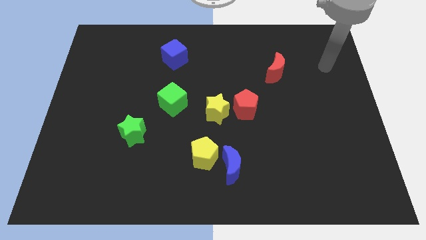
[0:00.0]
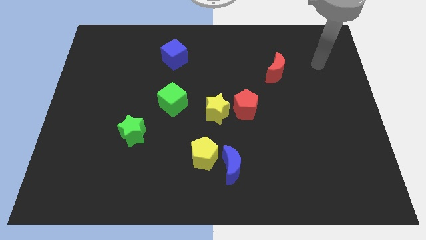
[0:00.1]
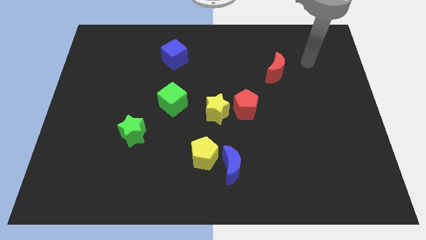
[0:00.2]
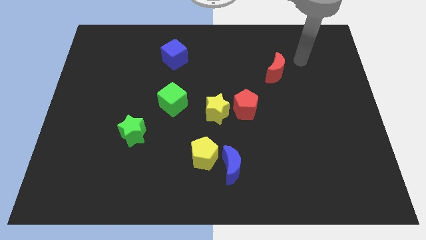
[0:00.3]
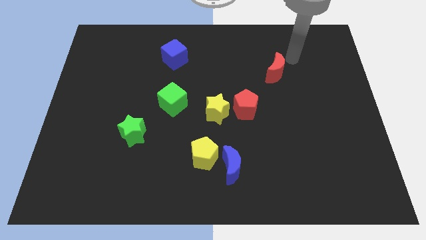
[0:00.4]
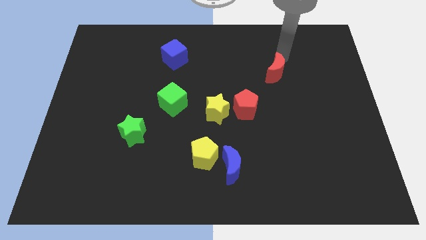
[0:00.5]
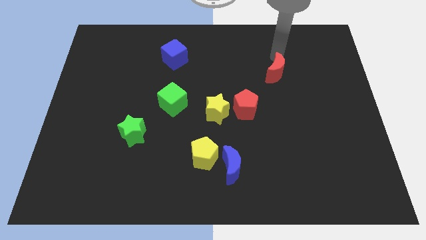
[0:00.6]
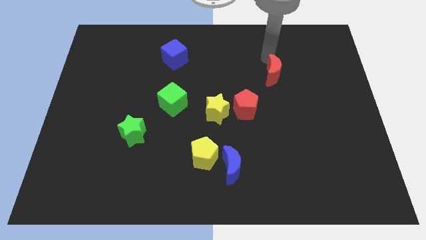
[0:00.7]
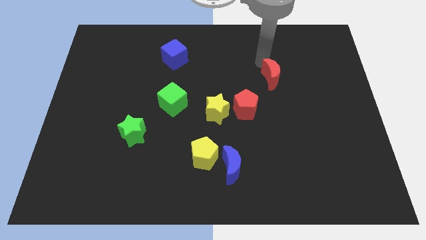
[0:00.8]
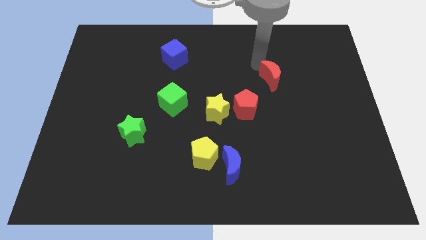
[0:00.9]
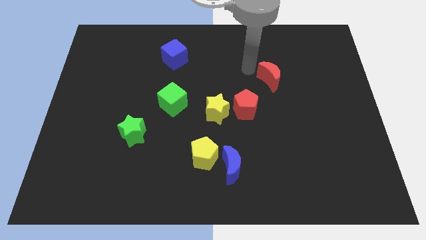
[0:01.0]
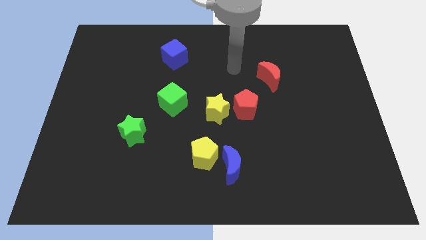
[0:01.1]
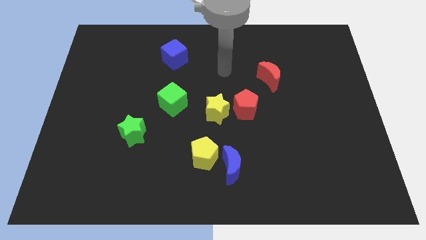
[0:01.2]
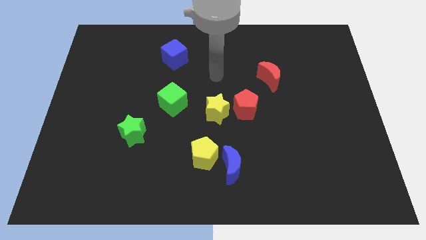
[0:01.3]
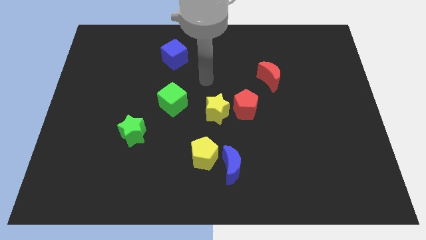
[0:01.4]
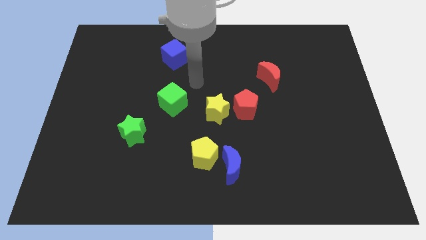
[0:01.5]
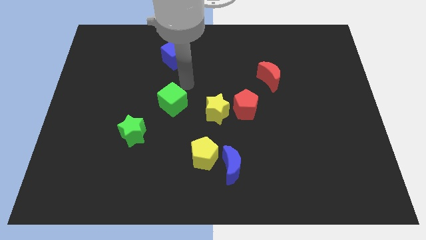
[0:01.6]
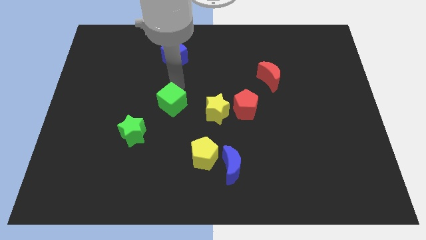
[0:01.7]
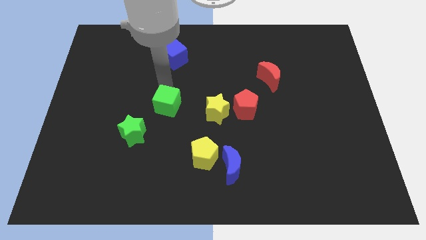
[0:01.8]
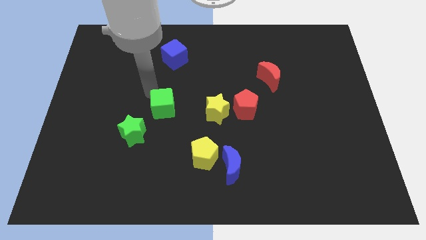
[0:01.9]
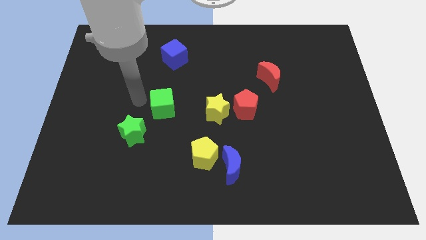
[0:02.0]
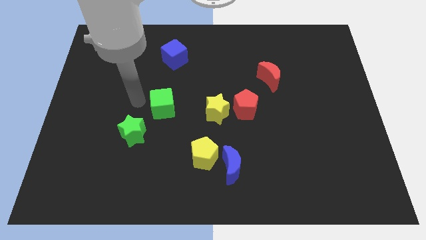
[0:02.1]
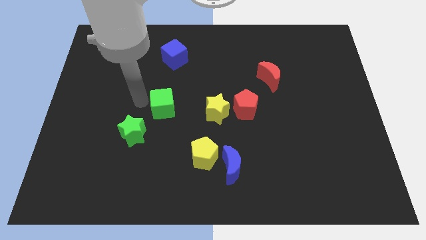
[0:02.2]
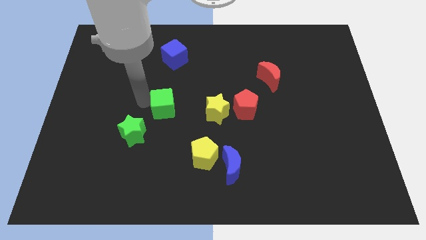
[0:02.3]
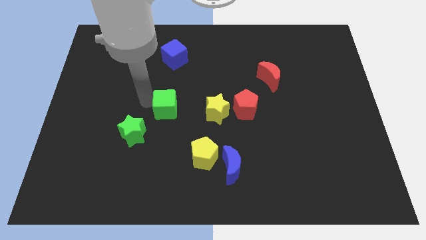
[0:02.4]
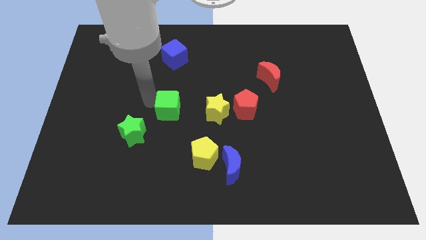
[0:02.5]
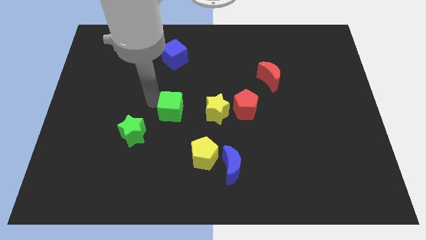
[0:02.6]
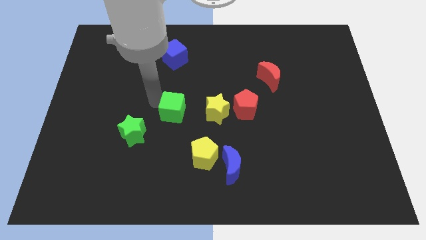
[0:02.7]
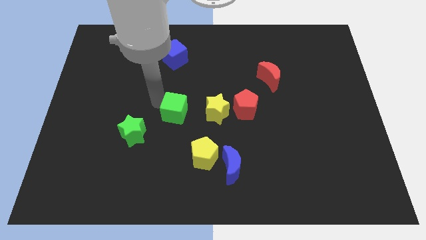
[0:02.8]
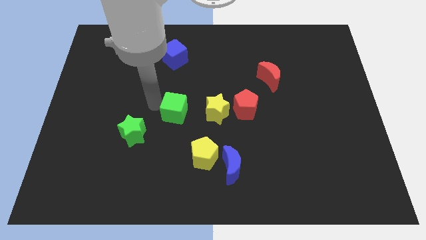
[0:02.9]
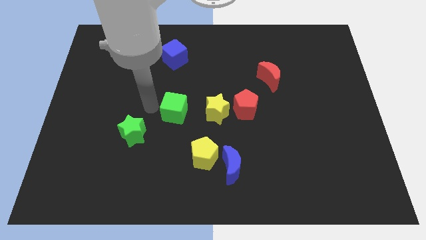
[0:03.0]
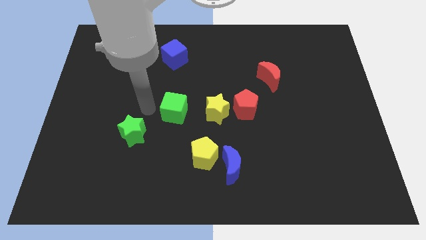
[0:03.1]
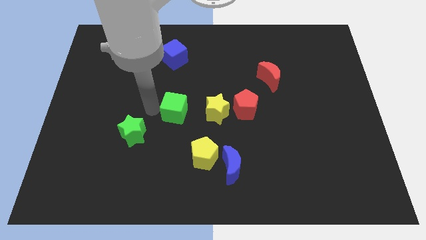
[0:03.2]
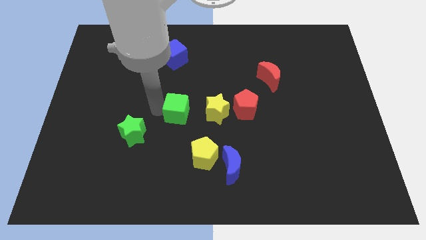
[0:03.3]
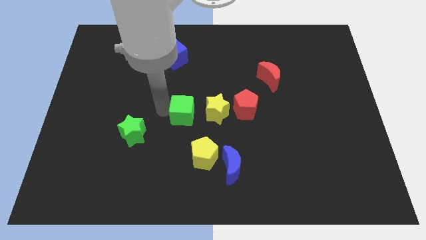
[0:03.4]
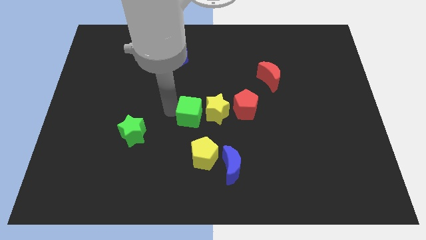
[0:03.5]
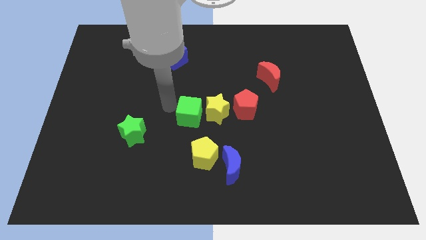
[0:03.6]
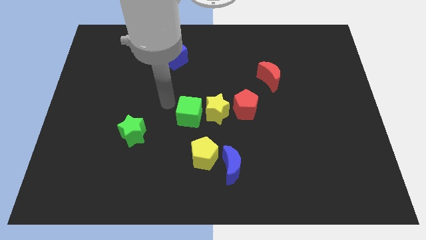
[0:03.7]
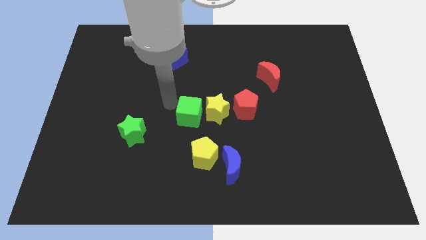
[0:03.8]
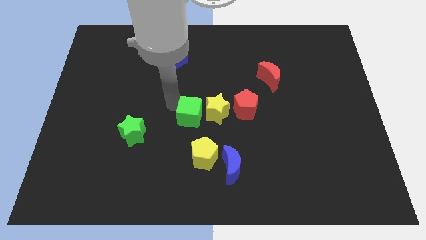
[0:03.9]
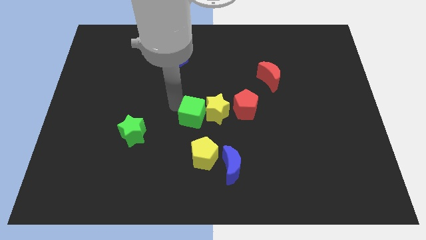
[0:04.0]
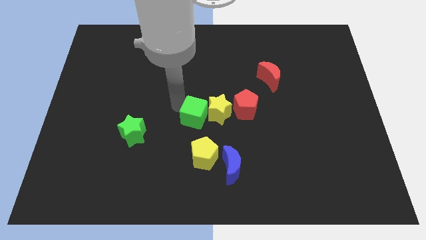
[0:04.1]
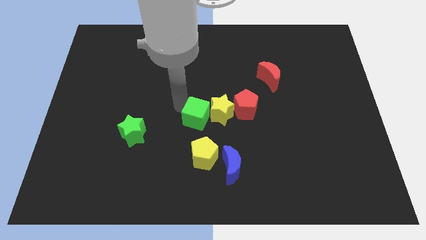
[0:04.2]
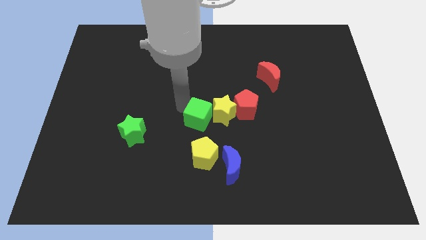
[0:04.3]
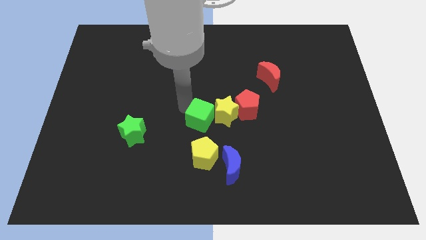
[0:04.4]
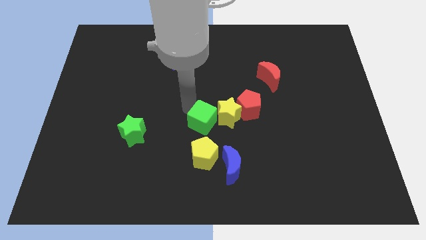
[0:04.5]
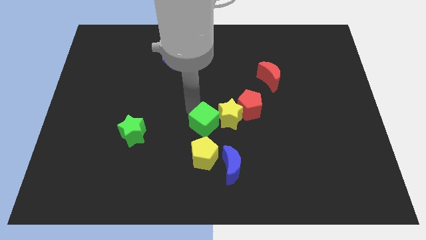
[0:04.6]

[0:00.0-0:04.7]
push the green cube diagonally down and to the left of the red pentagon

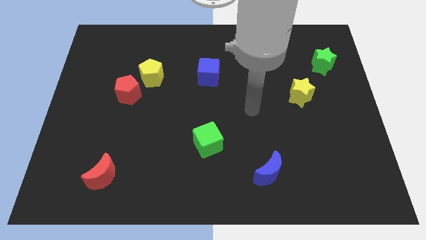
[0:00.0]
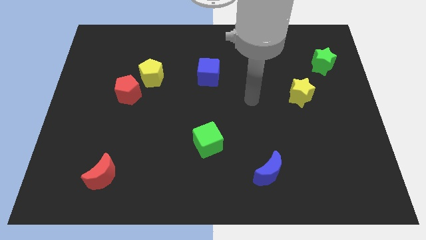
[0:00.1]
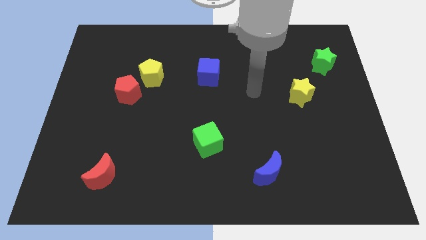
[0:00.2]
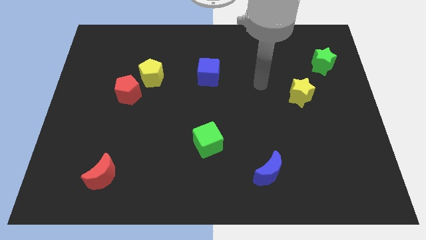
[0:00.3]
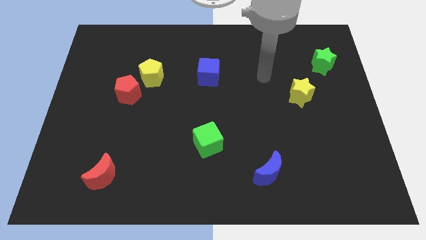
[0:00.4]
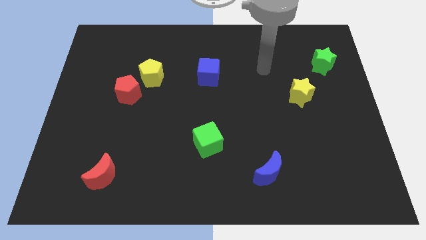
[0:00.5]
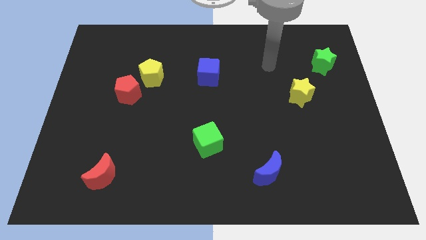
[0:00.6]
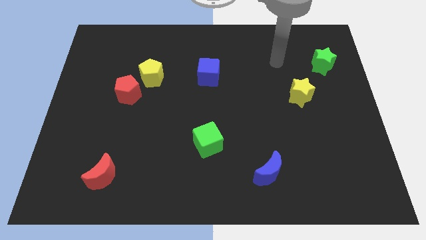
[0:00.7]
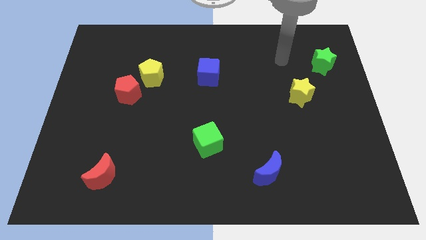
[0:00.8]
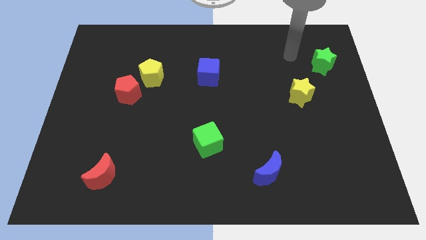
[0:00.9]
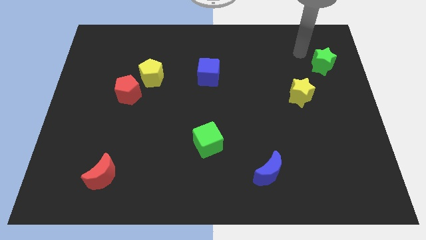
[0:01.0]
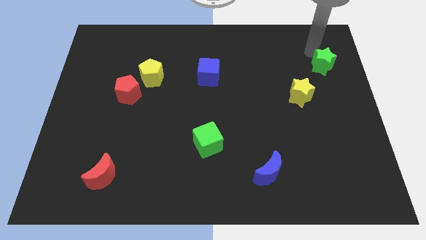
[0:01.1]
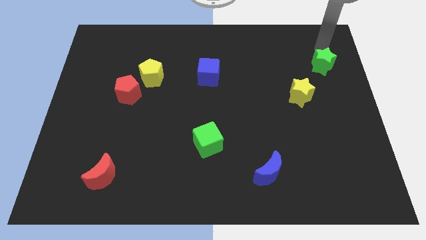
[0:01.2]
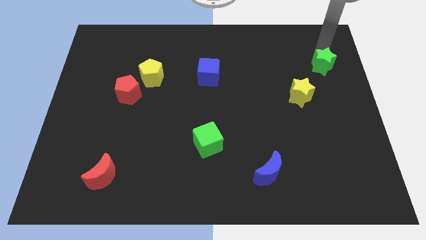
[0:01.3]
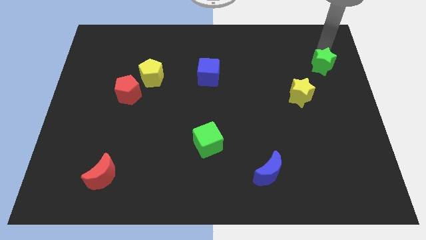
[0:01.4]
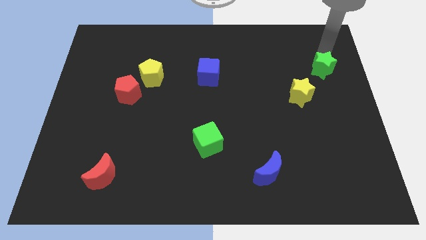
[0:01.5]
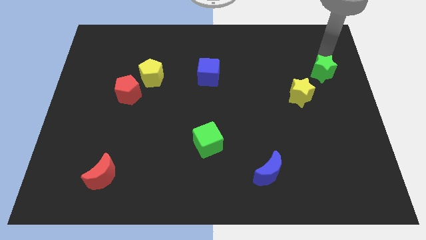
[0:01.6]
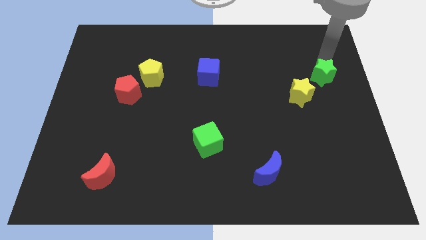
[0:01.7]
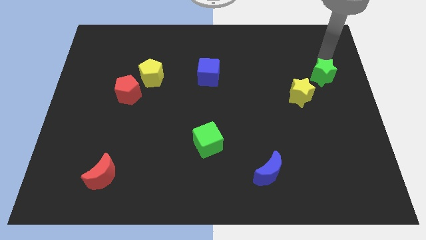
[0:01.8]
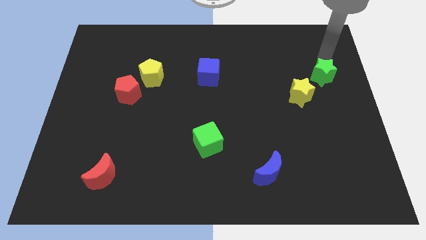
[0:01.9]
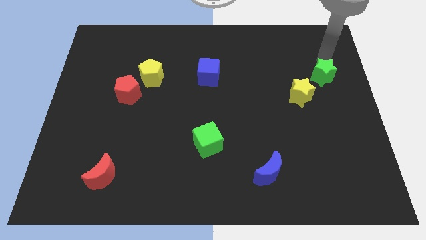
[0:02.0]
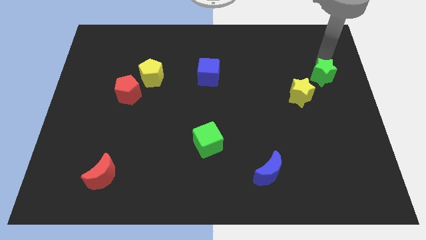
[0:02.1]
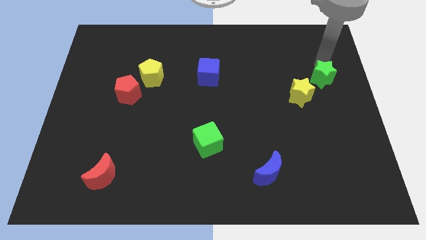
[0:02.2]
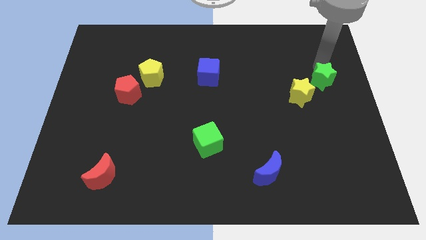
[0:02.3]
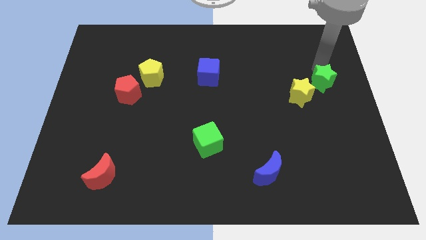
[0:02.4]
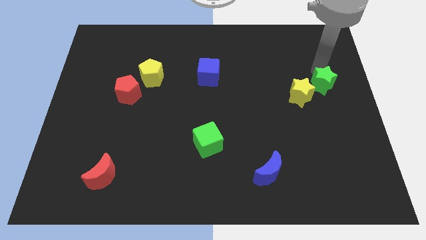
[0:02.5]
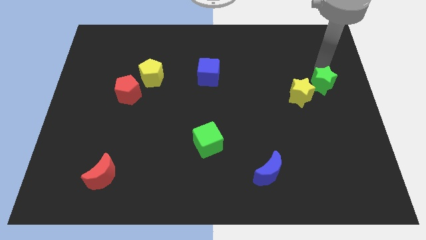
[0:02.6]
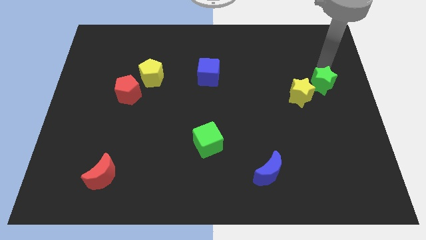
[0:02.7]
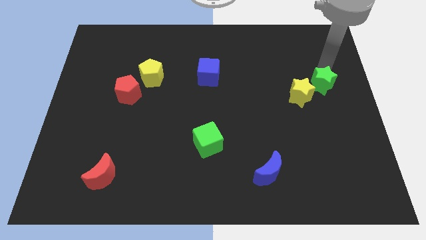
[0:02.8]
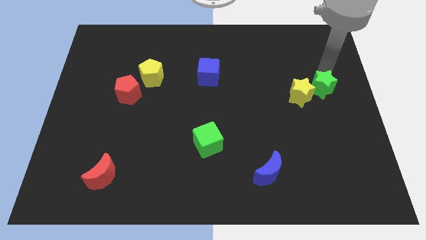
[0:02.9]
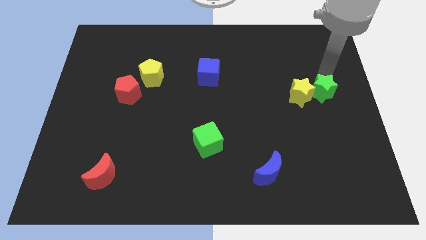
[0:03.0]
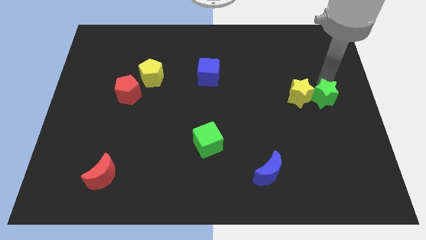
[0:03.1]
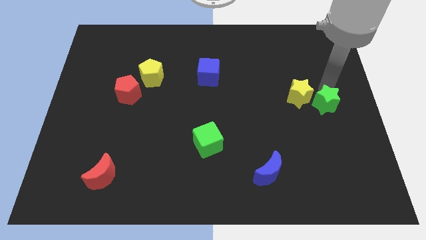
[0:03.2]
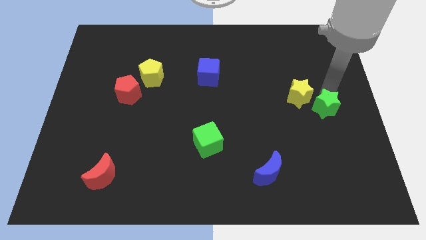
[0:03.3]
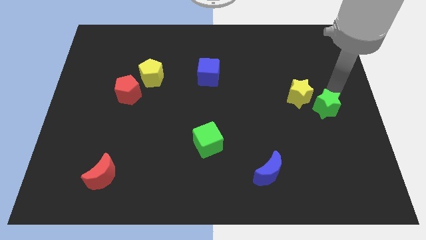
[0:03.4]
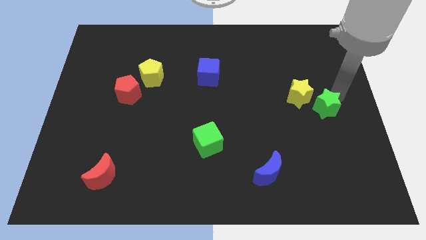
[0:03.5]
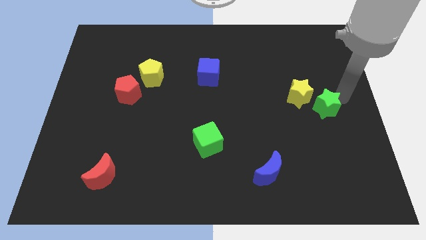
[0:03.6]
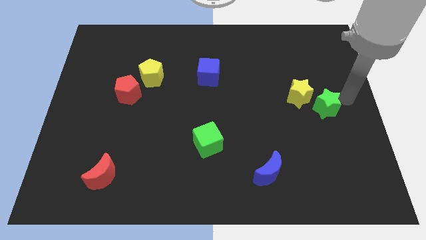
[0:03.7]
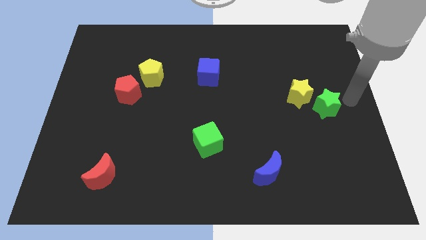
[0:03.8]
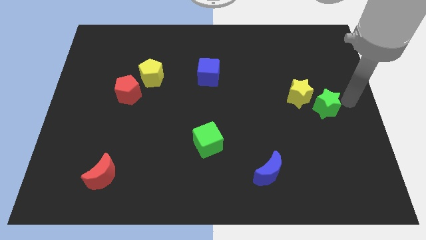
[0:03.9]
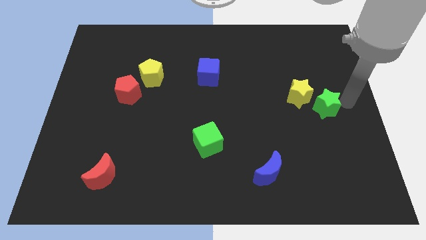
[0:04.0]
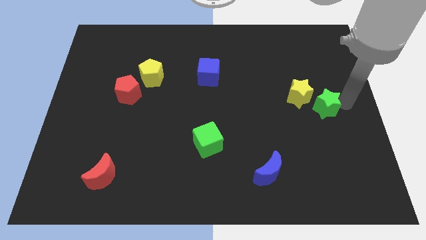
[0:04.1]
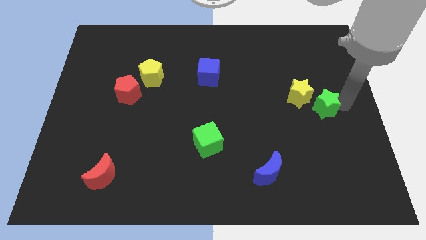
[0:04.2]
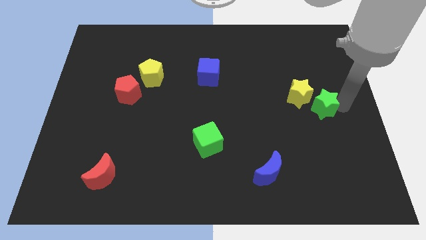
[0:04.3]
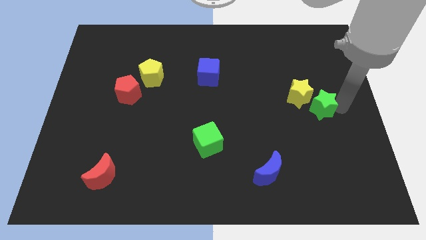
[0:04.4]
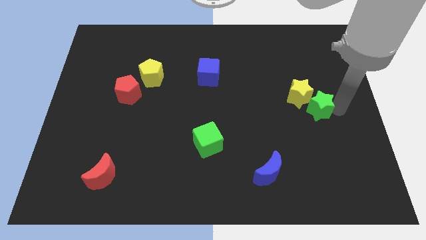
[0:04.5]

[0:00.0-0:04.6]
slide the green star to the bottom of the yellow star
